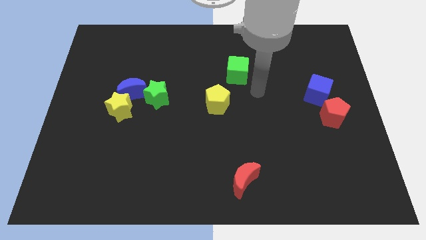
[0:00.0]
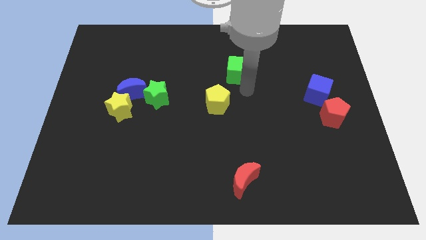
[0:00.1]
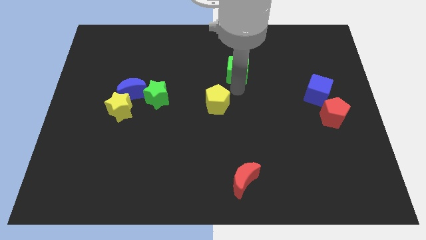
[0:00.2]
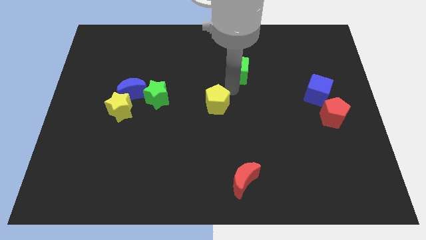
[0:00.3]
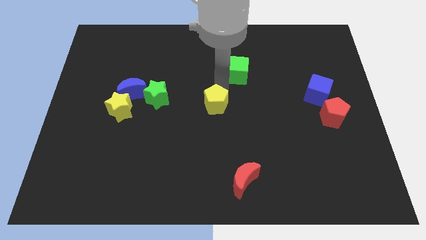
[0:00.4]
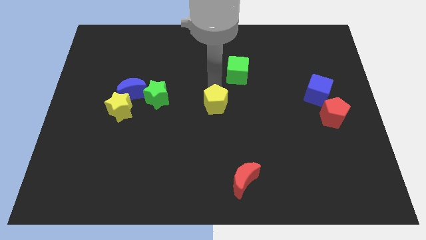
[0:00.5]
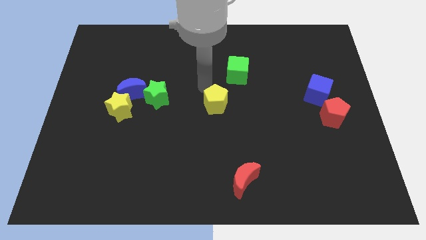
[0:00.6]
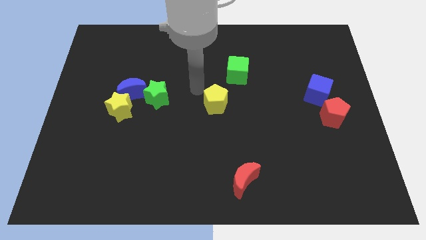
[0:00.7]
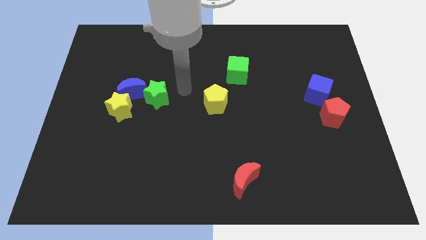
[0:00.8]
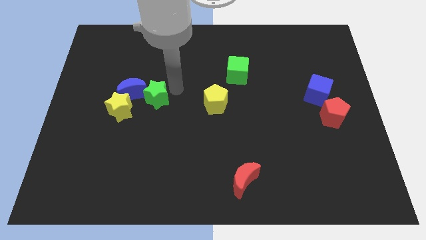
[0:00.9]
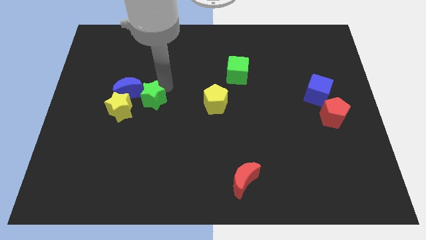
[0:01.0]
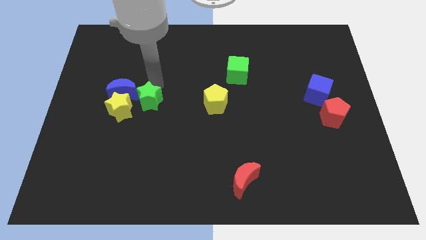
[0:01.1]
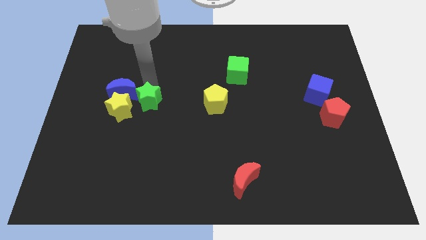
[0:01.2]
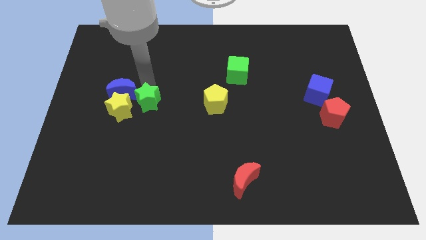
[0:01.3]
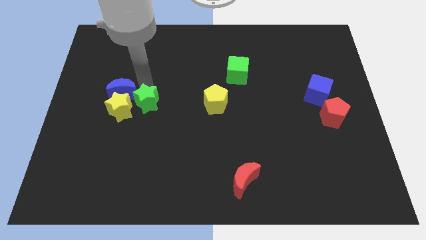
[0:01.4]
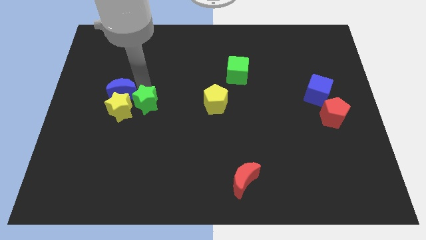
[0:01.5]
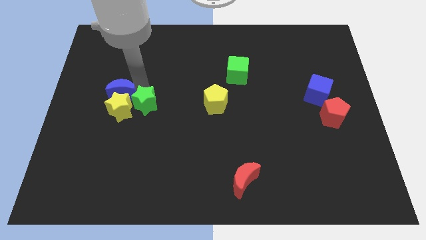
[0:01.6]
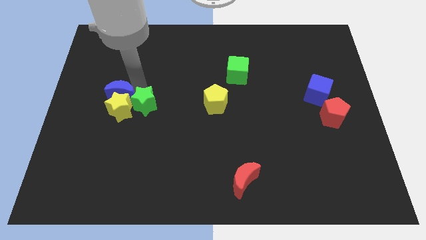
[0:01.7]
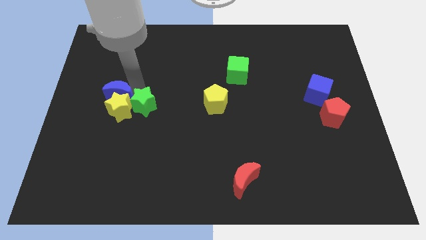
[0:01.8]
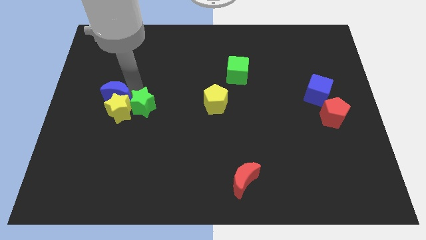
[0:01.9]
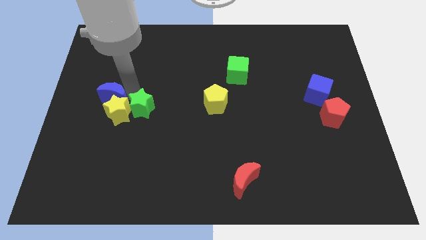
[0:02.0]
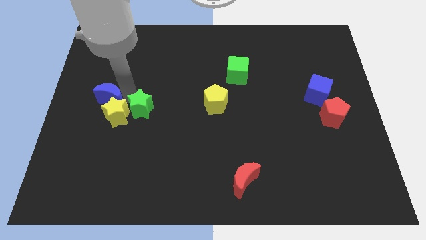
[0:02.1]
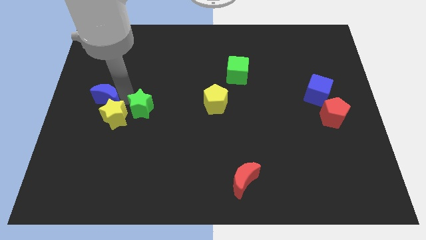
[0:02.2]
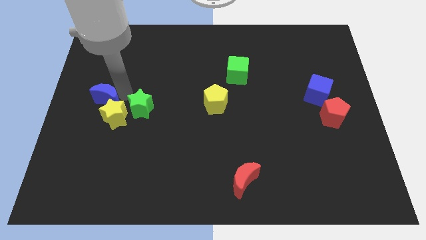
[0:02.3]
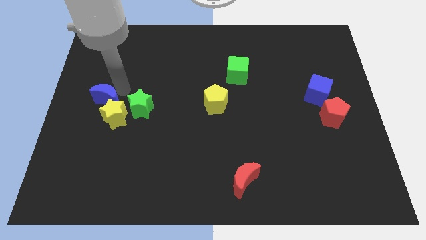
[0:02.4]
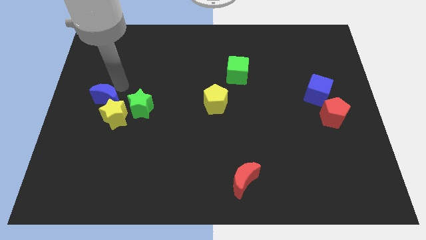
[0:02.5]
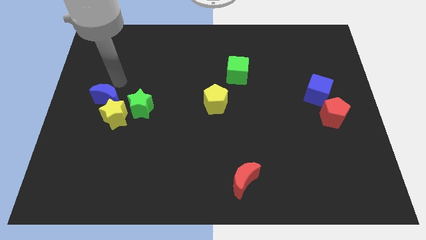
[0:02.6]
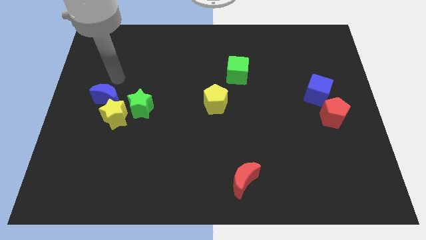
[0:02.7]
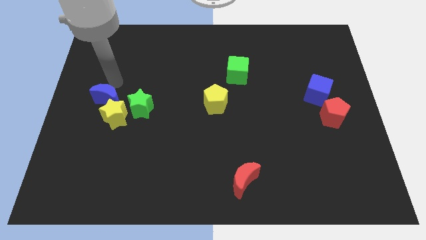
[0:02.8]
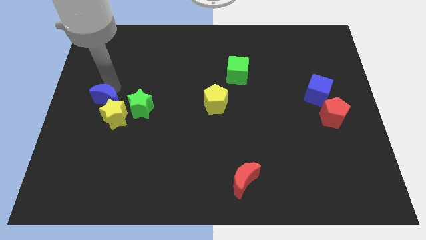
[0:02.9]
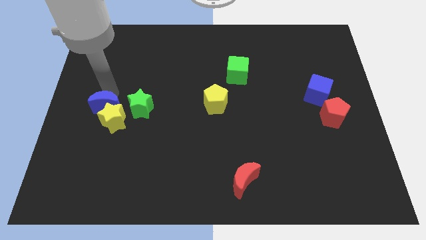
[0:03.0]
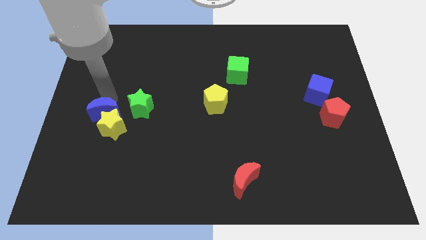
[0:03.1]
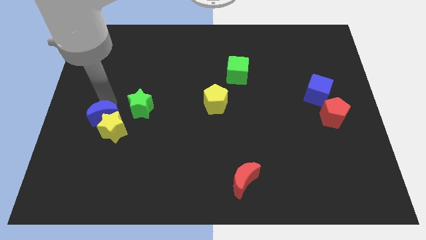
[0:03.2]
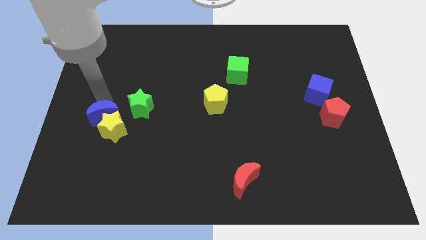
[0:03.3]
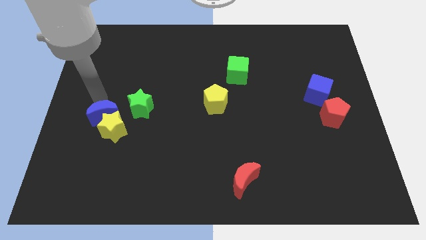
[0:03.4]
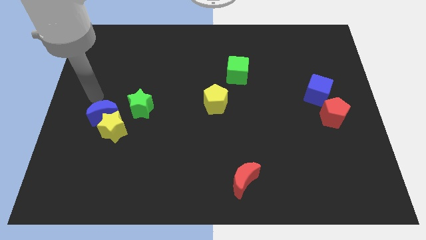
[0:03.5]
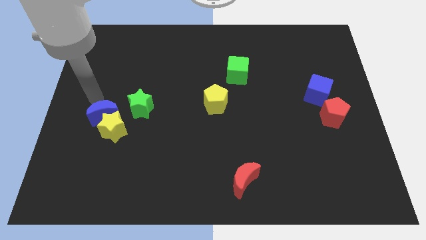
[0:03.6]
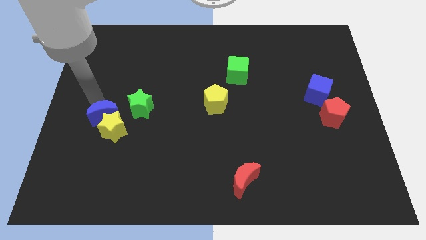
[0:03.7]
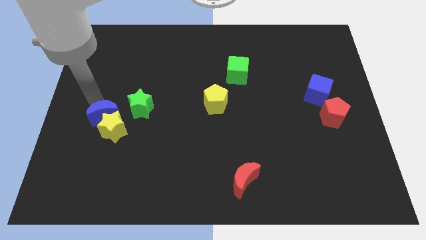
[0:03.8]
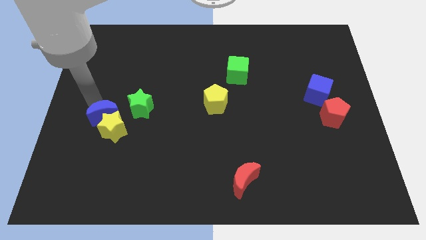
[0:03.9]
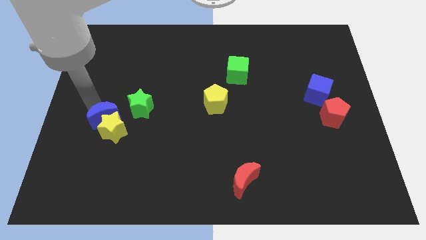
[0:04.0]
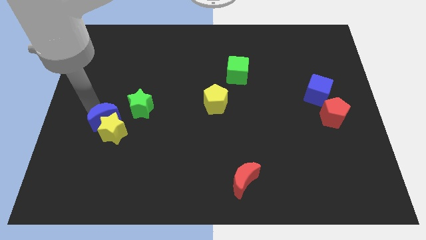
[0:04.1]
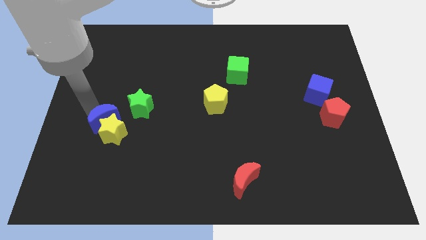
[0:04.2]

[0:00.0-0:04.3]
slide the blue moon downwards a little bit

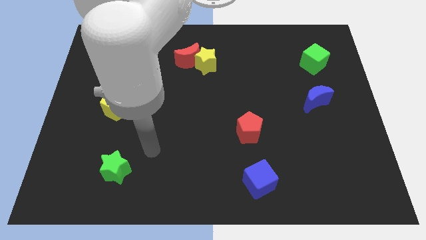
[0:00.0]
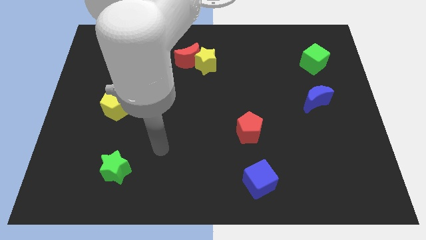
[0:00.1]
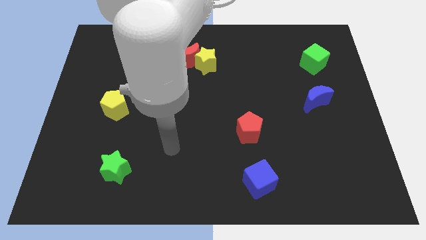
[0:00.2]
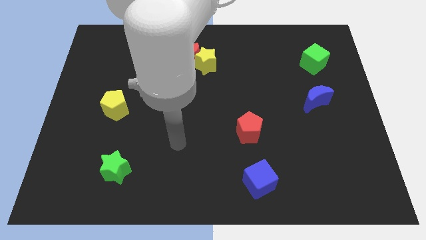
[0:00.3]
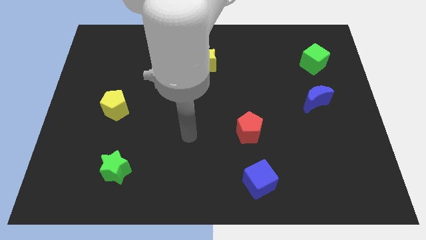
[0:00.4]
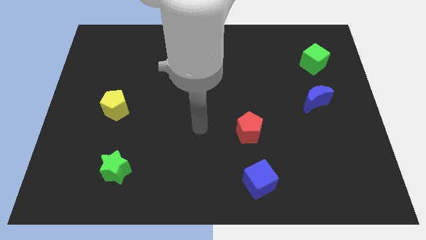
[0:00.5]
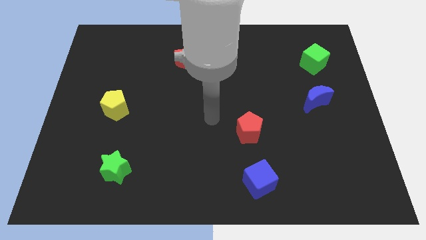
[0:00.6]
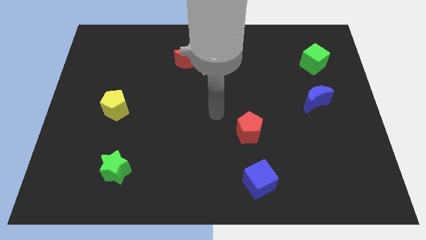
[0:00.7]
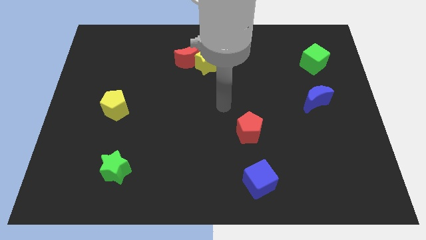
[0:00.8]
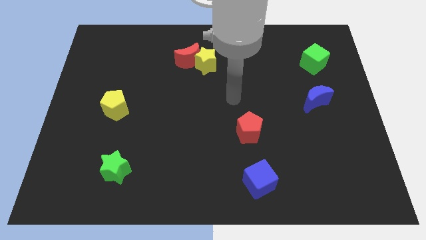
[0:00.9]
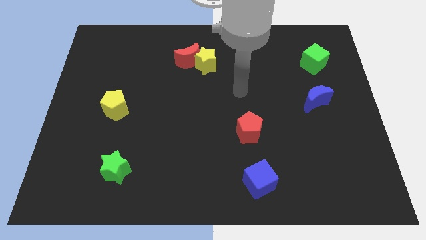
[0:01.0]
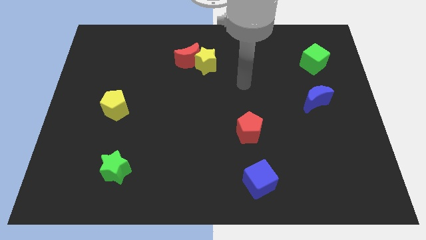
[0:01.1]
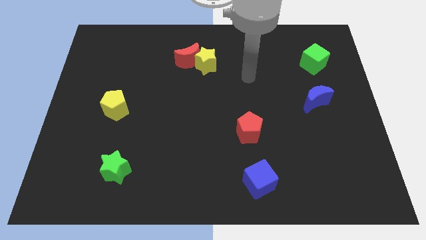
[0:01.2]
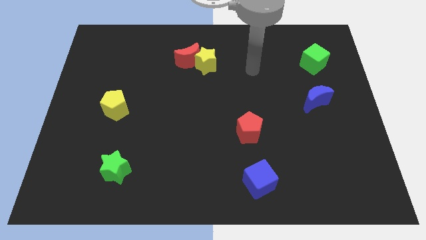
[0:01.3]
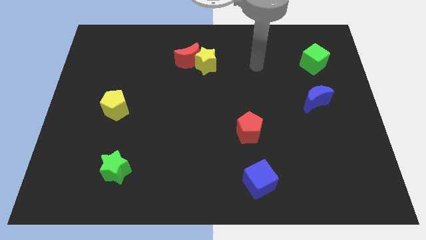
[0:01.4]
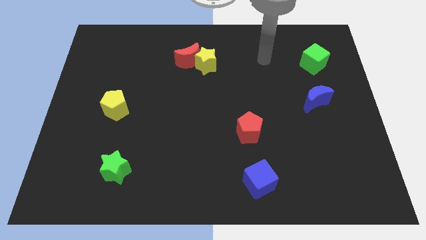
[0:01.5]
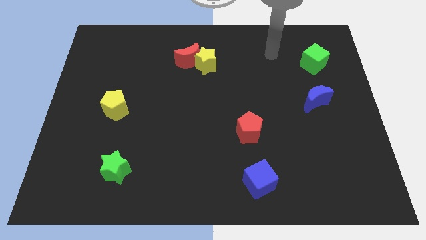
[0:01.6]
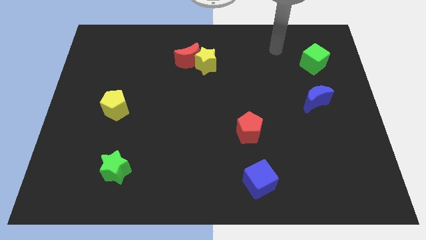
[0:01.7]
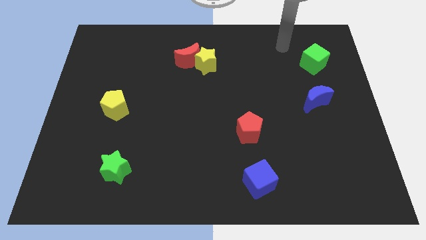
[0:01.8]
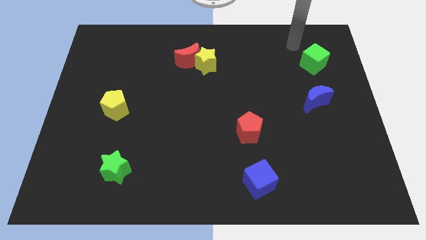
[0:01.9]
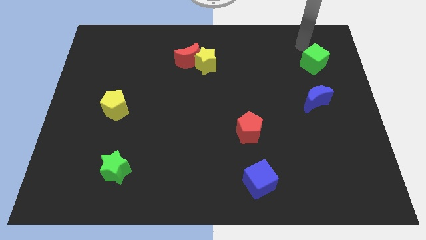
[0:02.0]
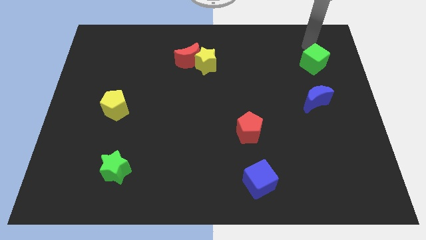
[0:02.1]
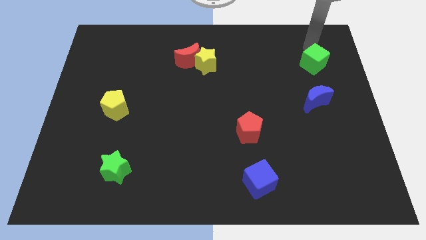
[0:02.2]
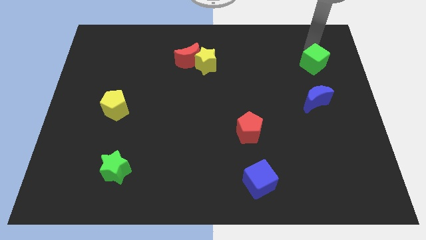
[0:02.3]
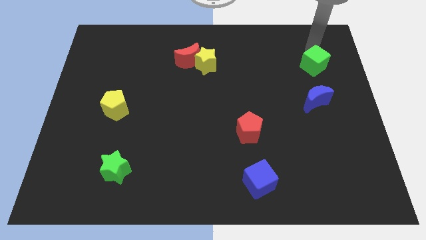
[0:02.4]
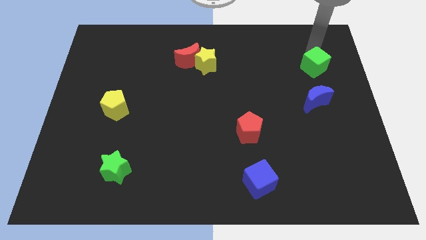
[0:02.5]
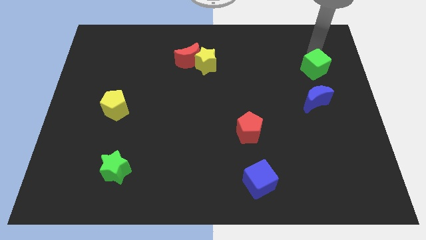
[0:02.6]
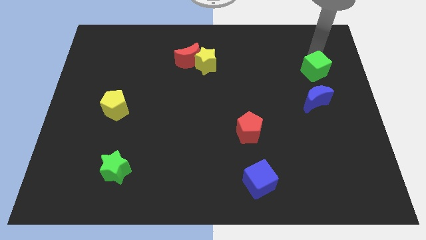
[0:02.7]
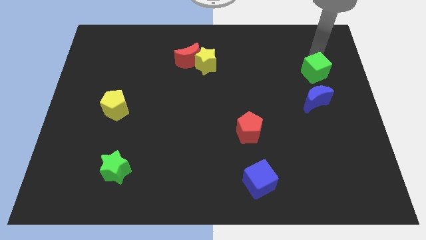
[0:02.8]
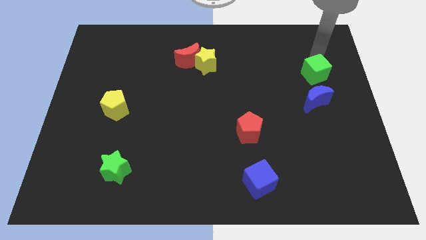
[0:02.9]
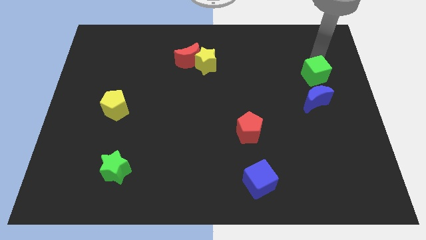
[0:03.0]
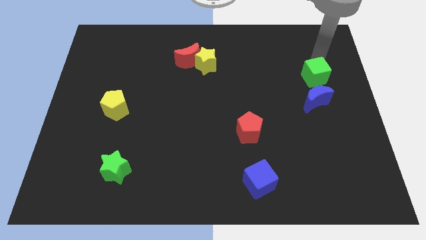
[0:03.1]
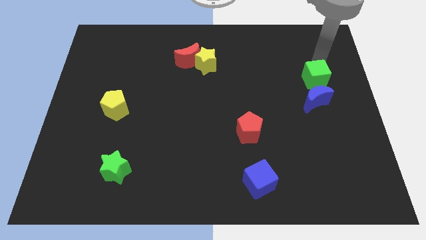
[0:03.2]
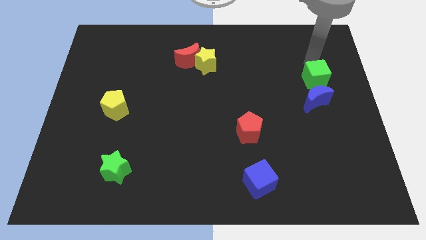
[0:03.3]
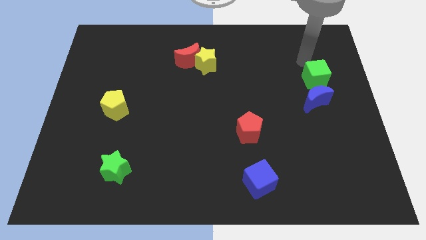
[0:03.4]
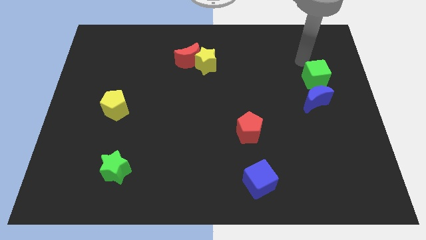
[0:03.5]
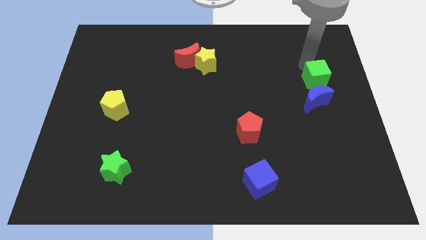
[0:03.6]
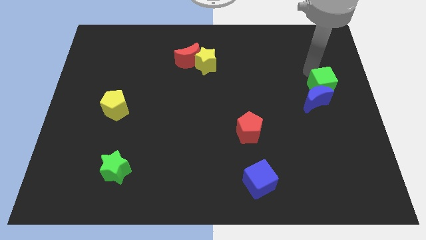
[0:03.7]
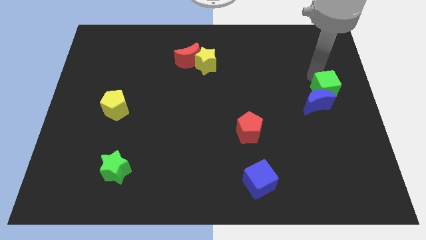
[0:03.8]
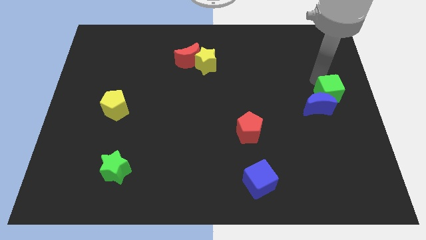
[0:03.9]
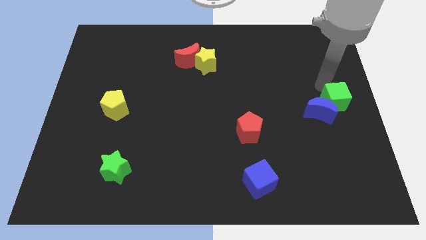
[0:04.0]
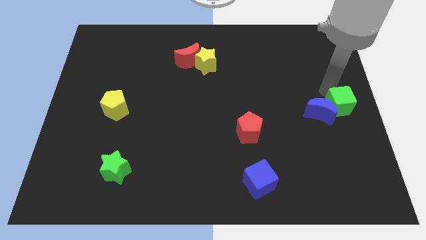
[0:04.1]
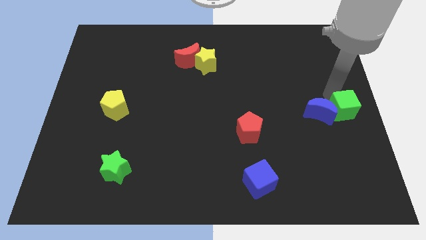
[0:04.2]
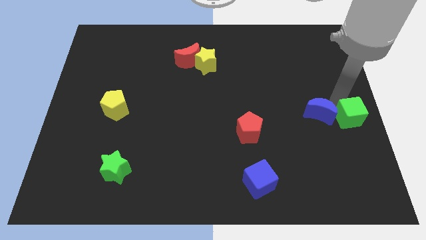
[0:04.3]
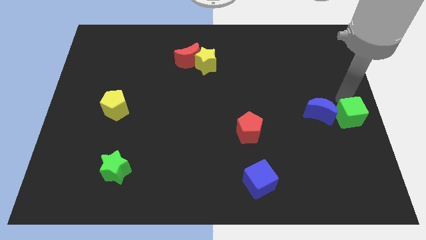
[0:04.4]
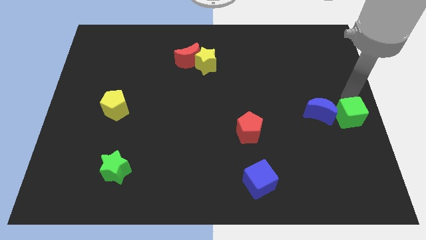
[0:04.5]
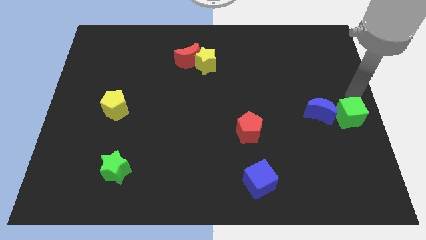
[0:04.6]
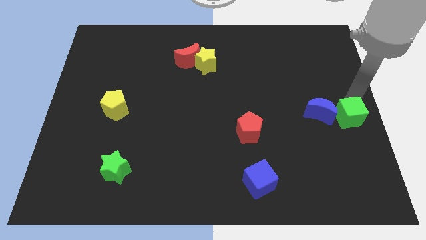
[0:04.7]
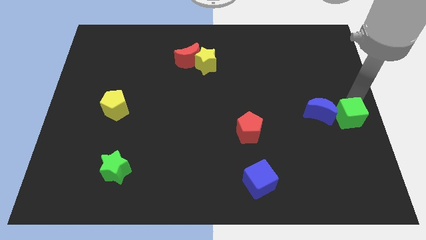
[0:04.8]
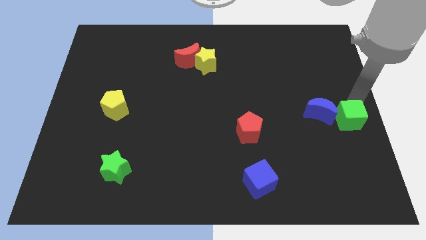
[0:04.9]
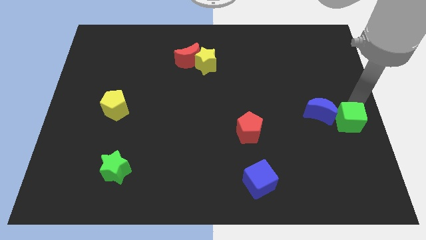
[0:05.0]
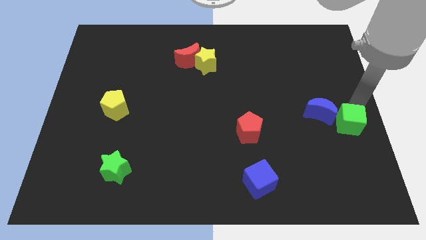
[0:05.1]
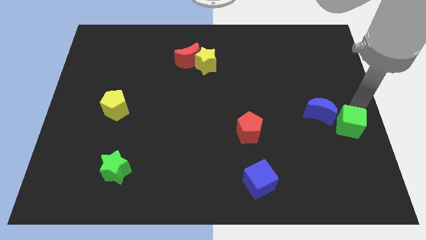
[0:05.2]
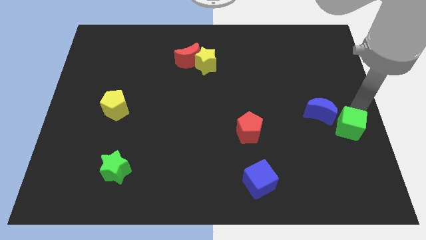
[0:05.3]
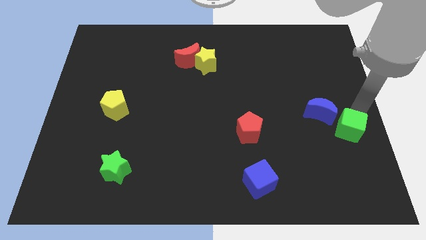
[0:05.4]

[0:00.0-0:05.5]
move the green cube down
